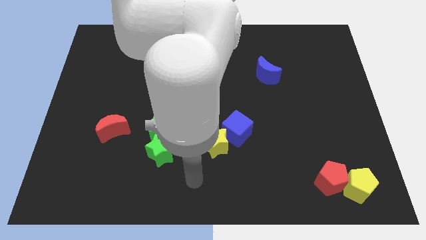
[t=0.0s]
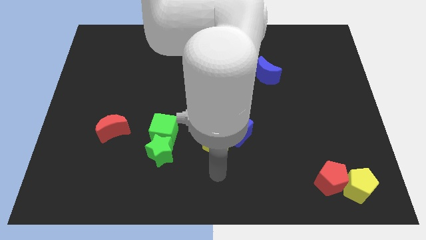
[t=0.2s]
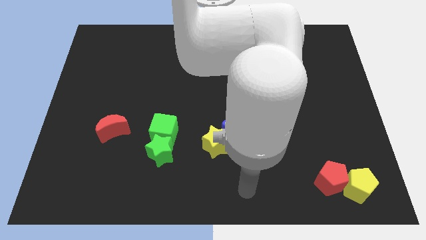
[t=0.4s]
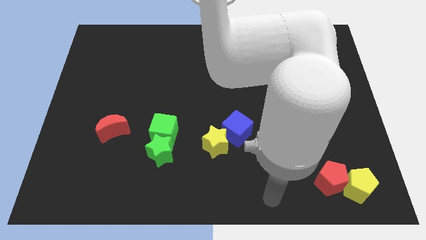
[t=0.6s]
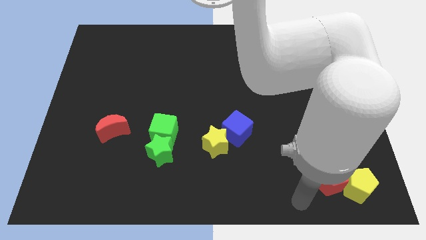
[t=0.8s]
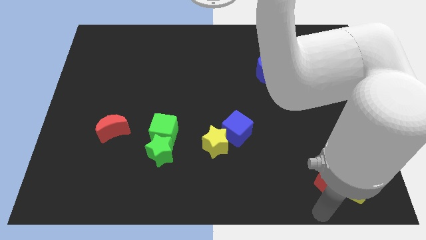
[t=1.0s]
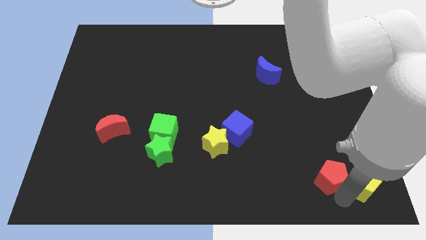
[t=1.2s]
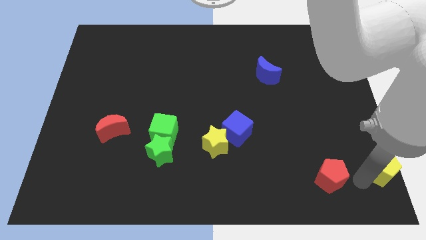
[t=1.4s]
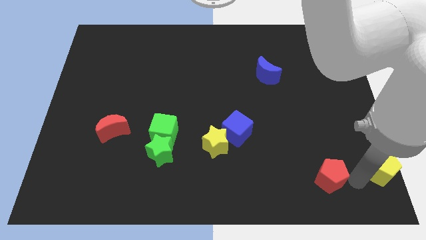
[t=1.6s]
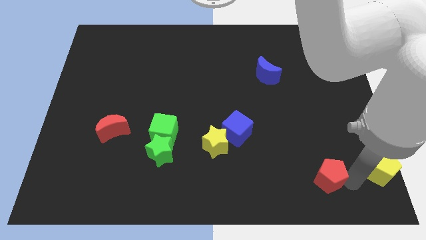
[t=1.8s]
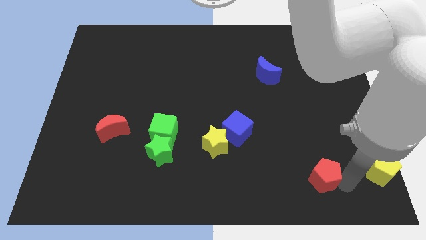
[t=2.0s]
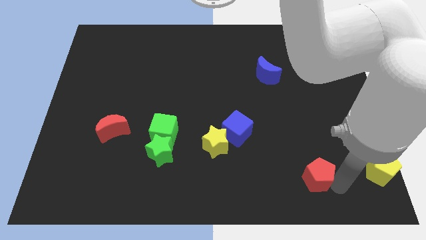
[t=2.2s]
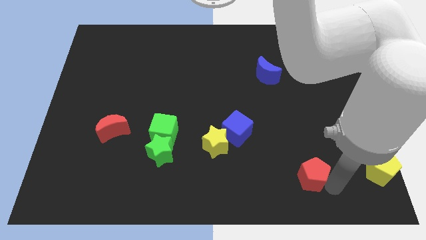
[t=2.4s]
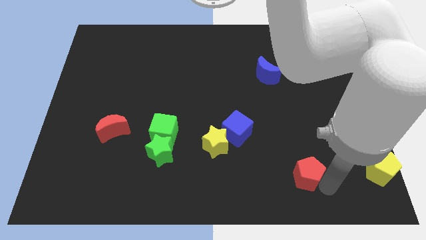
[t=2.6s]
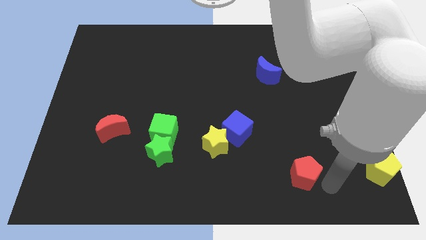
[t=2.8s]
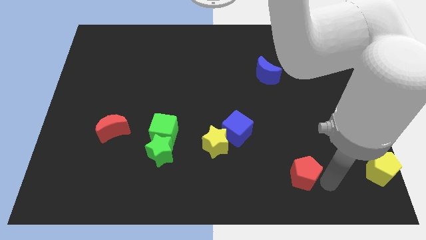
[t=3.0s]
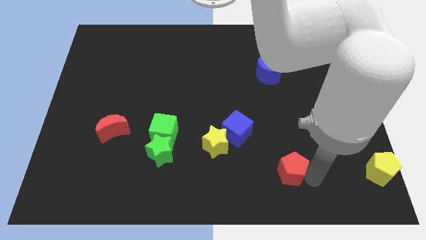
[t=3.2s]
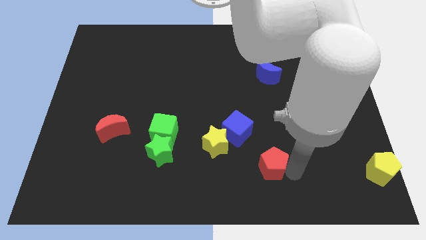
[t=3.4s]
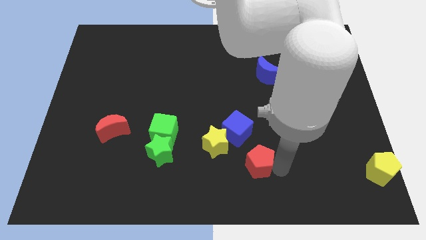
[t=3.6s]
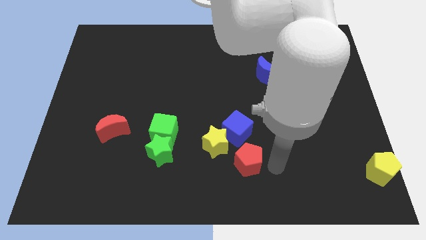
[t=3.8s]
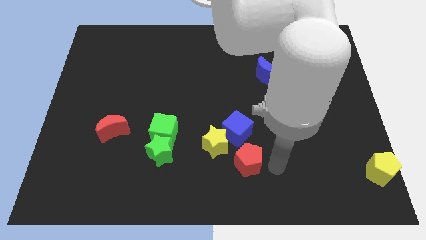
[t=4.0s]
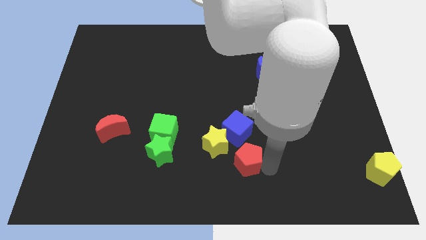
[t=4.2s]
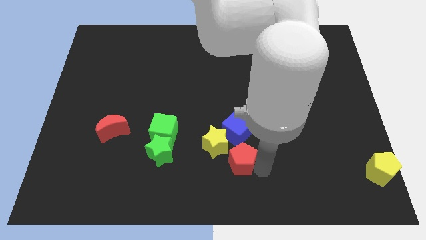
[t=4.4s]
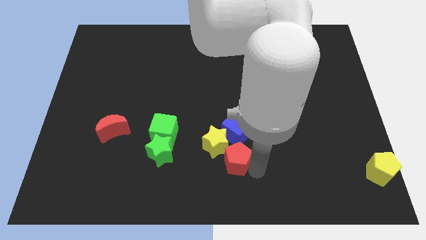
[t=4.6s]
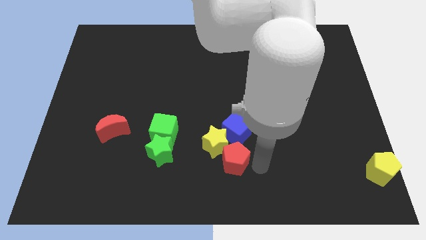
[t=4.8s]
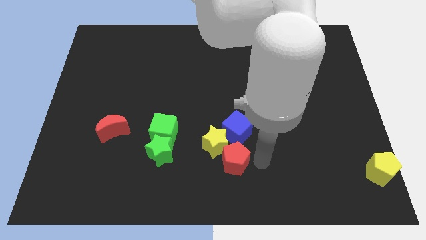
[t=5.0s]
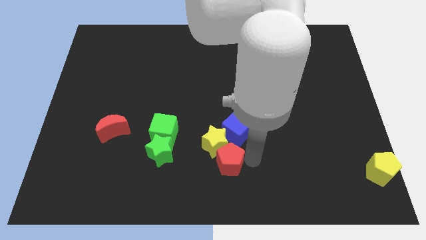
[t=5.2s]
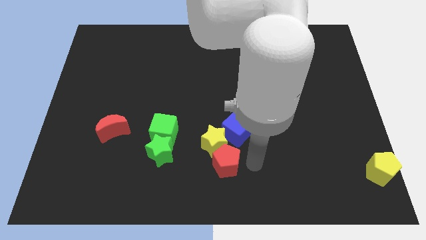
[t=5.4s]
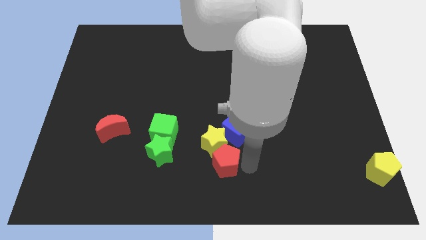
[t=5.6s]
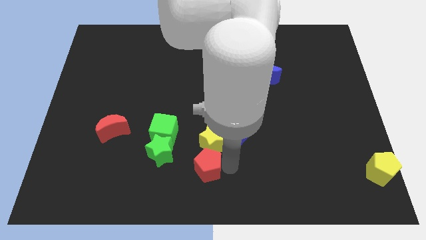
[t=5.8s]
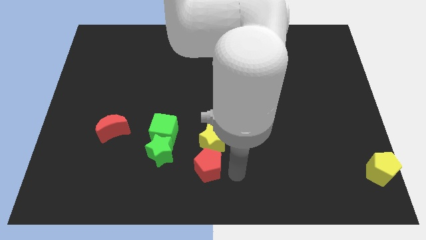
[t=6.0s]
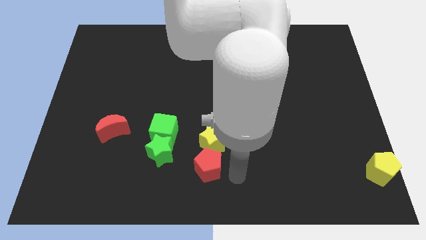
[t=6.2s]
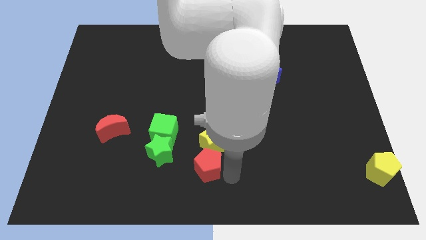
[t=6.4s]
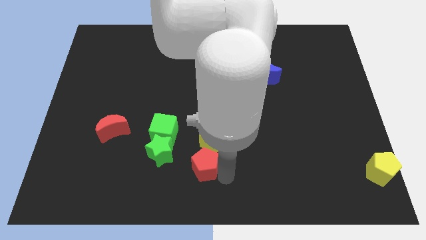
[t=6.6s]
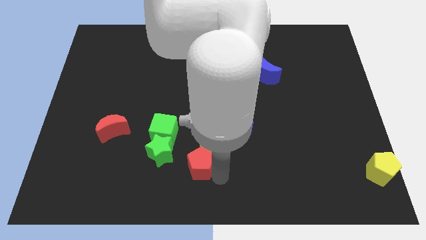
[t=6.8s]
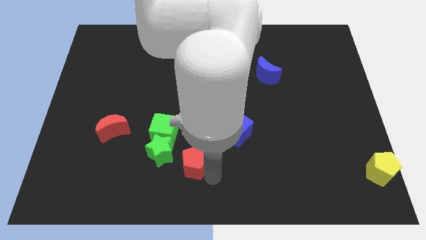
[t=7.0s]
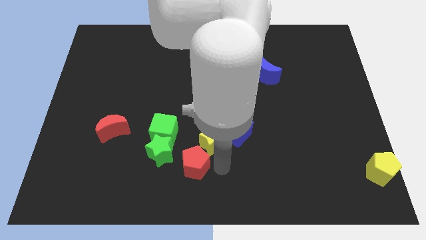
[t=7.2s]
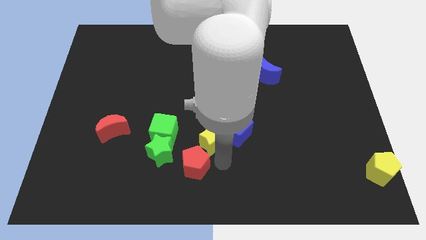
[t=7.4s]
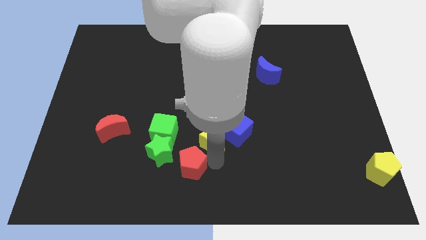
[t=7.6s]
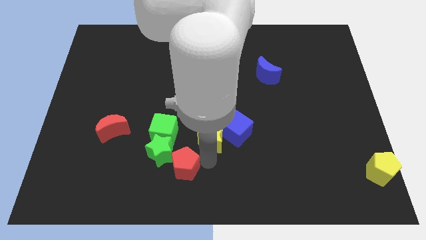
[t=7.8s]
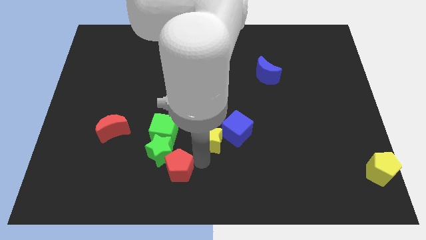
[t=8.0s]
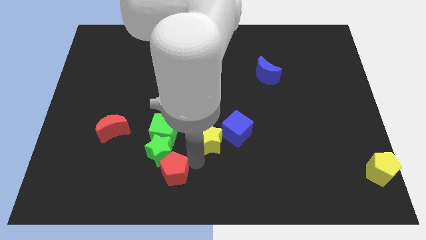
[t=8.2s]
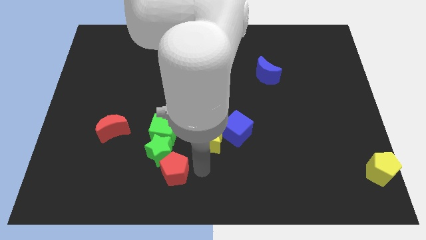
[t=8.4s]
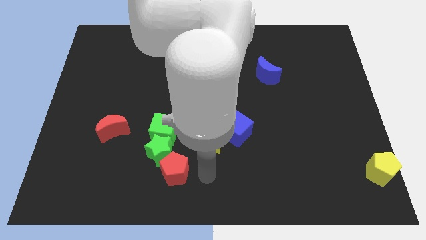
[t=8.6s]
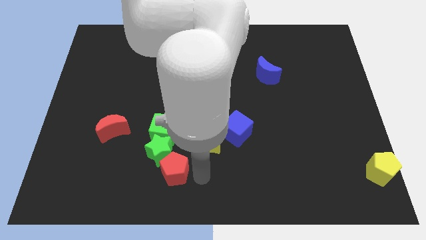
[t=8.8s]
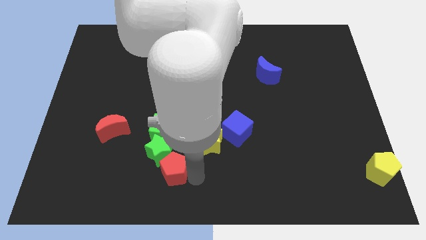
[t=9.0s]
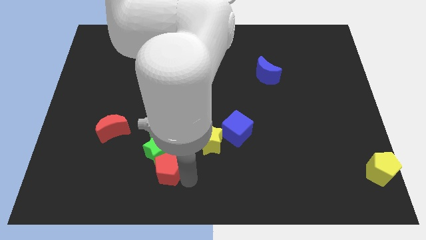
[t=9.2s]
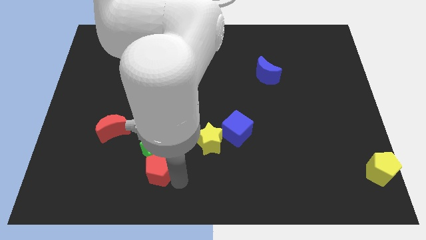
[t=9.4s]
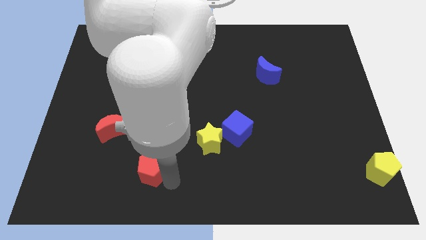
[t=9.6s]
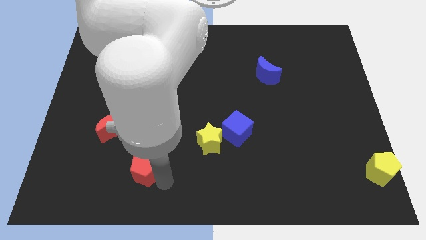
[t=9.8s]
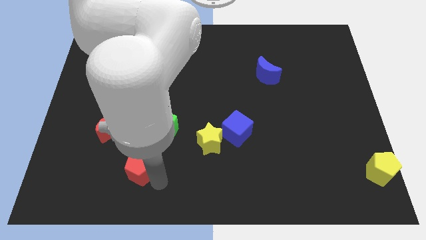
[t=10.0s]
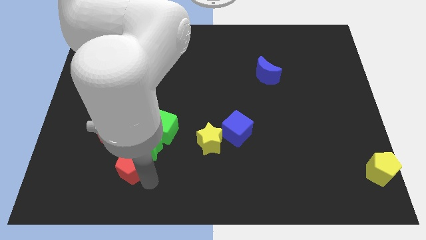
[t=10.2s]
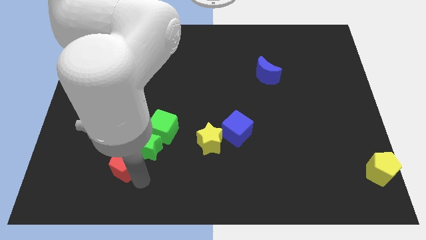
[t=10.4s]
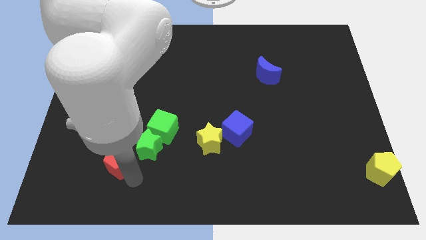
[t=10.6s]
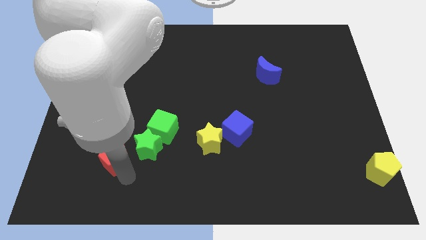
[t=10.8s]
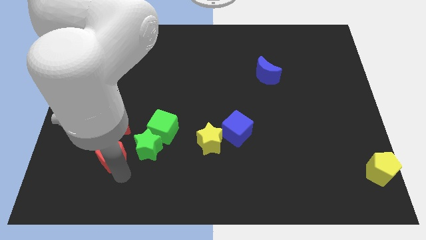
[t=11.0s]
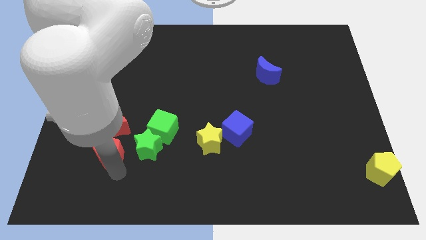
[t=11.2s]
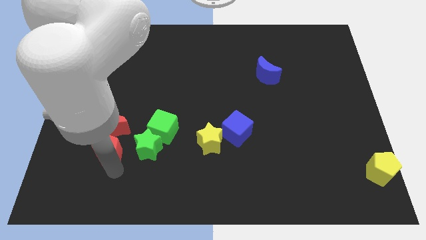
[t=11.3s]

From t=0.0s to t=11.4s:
put the red pentagon next to the red moon
